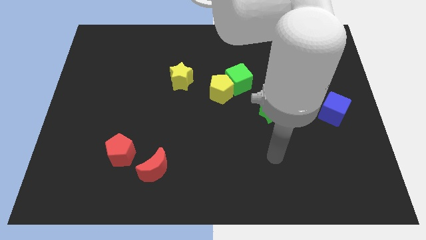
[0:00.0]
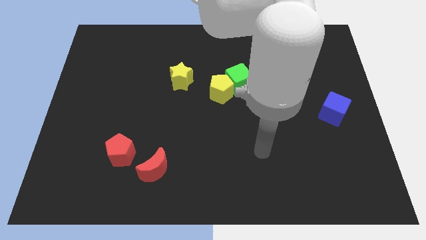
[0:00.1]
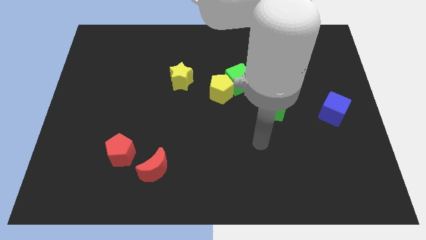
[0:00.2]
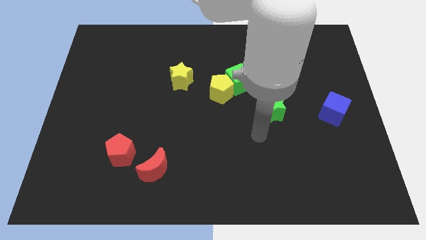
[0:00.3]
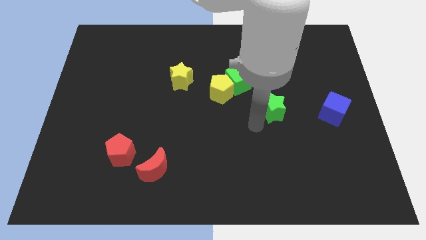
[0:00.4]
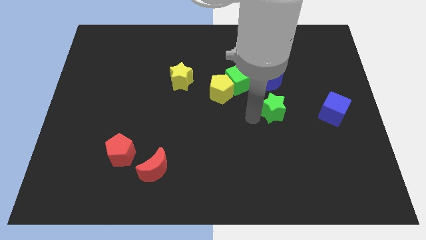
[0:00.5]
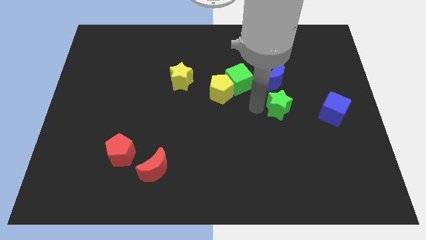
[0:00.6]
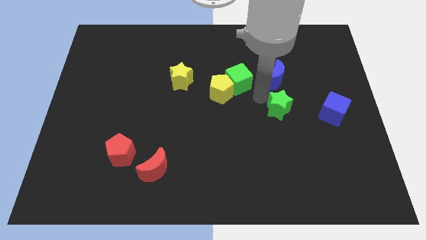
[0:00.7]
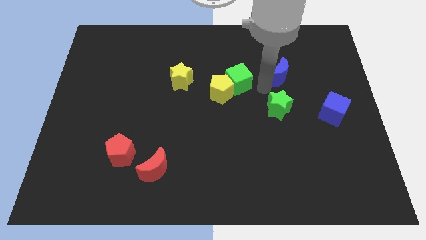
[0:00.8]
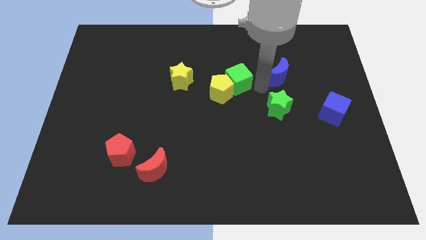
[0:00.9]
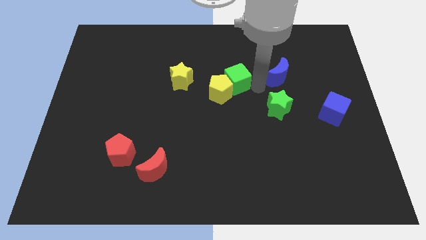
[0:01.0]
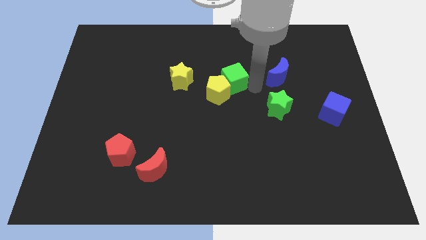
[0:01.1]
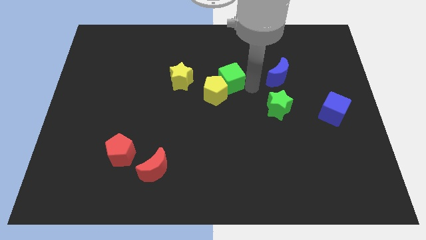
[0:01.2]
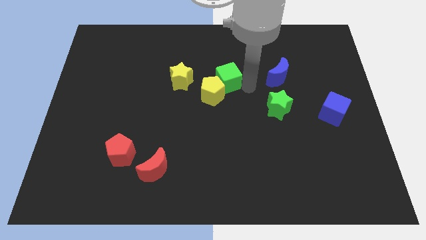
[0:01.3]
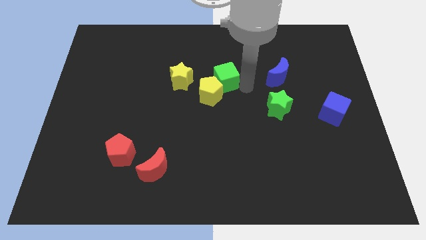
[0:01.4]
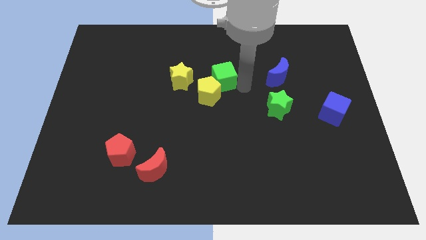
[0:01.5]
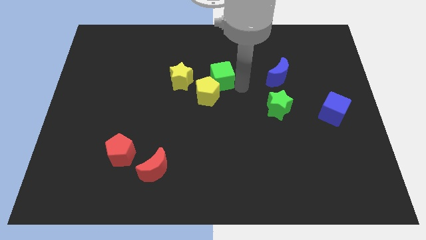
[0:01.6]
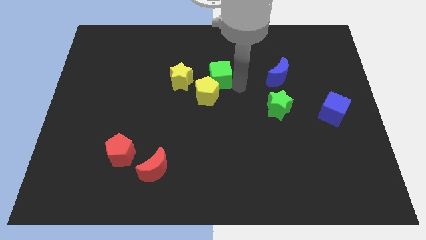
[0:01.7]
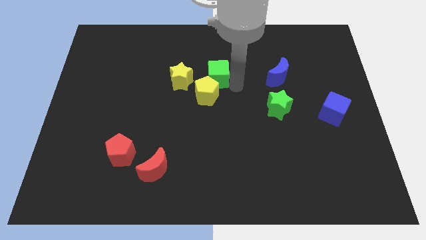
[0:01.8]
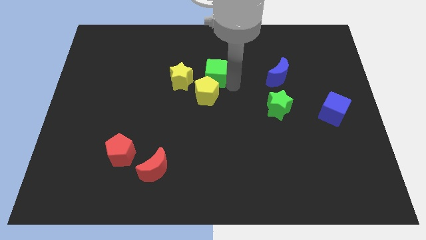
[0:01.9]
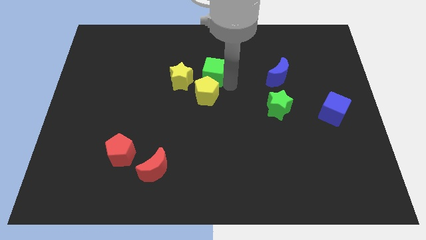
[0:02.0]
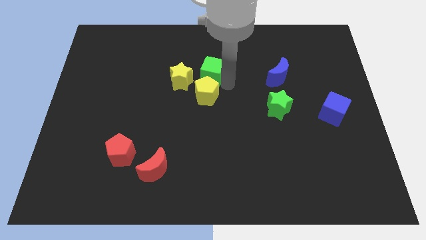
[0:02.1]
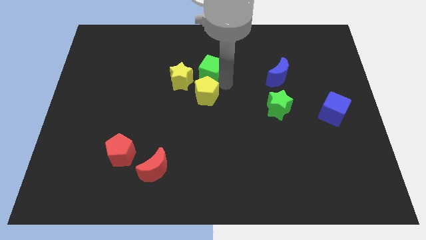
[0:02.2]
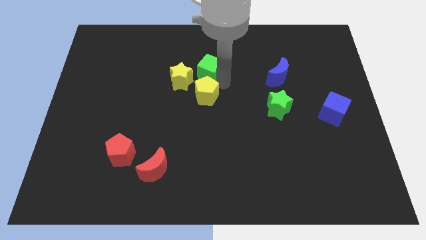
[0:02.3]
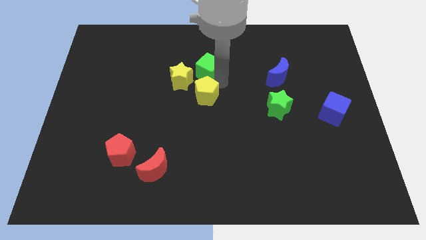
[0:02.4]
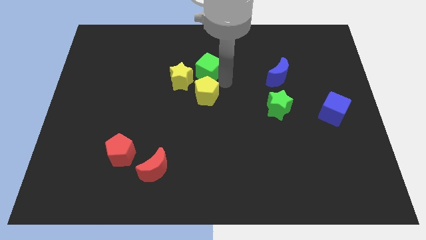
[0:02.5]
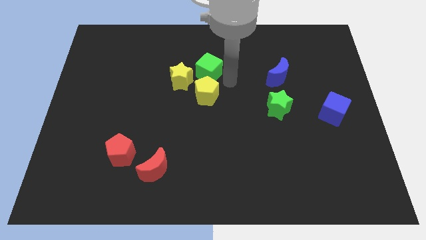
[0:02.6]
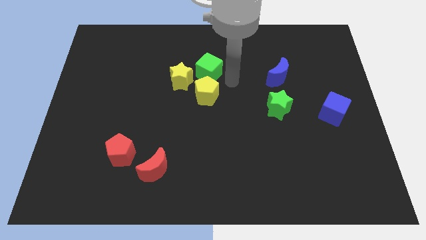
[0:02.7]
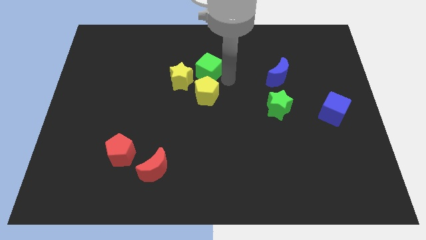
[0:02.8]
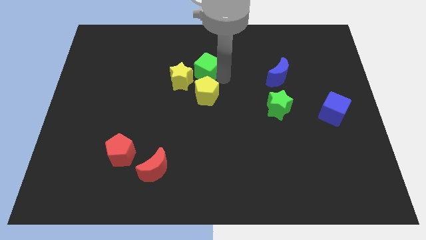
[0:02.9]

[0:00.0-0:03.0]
pull the green cube apart from the yellow pentagon and blue moon

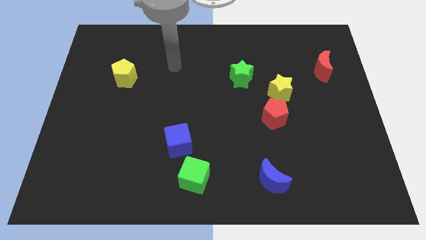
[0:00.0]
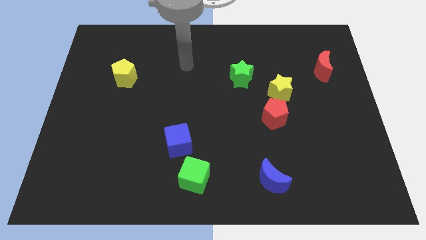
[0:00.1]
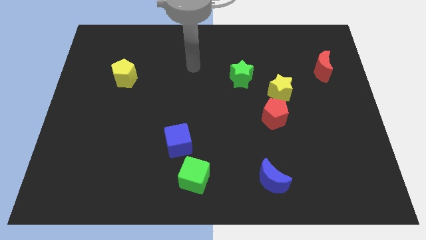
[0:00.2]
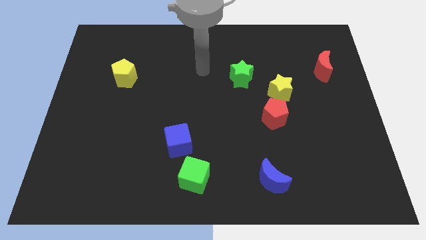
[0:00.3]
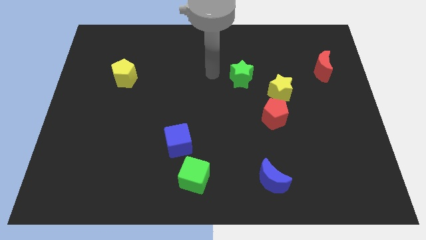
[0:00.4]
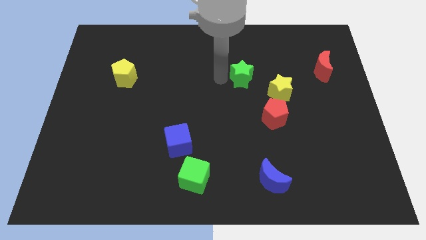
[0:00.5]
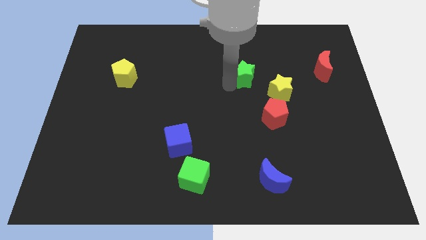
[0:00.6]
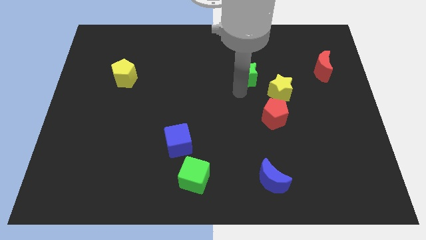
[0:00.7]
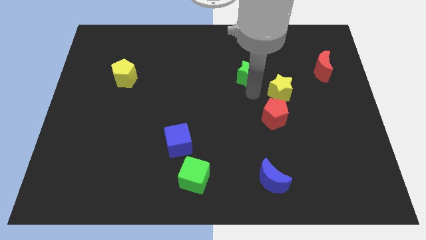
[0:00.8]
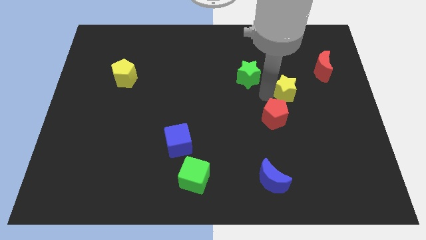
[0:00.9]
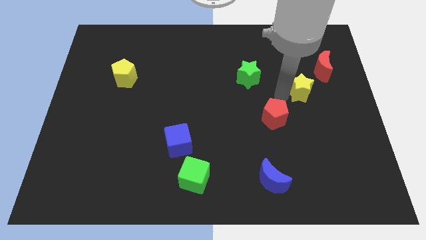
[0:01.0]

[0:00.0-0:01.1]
separate the red pentagon from the yellow star

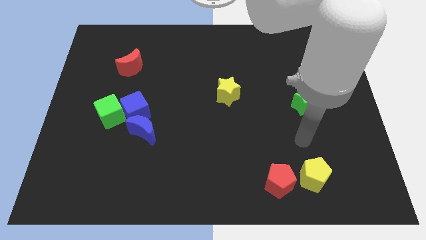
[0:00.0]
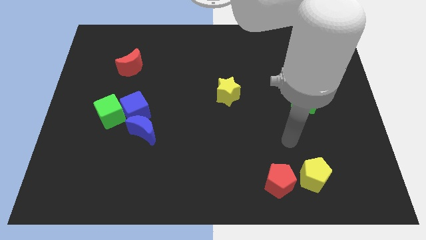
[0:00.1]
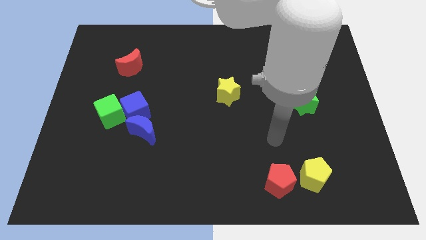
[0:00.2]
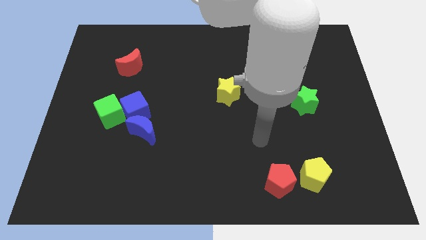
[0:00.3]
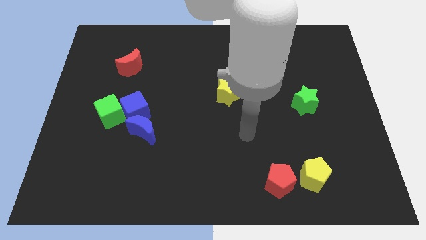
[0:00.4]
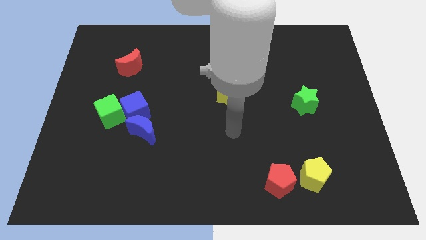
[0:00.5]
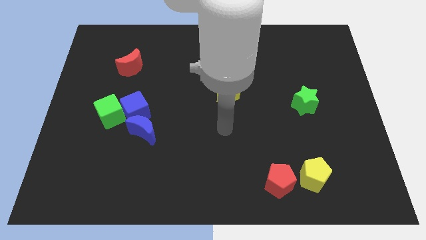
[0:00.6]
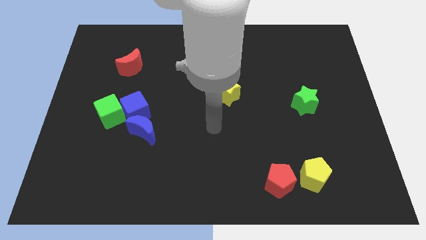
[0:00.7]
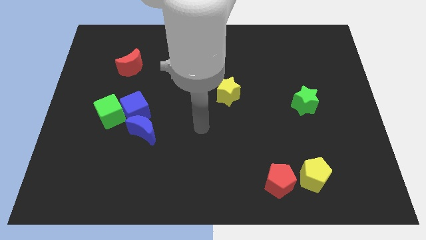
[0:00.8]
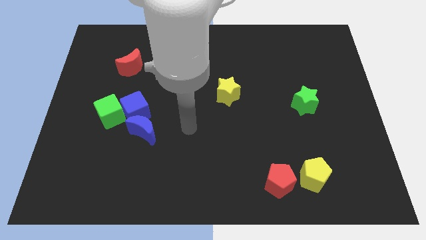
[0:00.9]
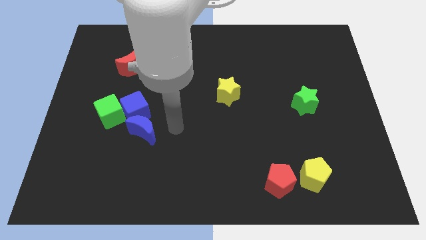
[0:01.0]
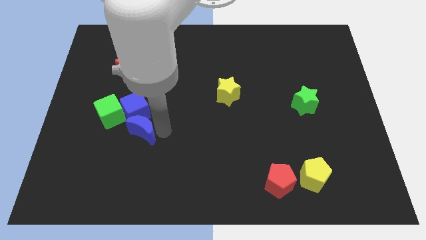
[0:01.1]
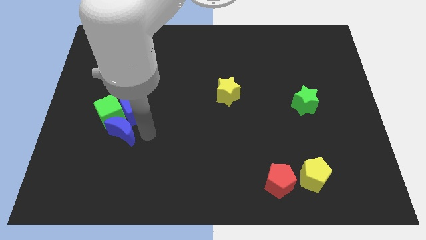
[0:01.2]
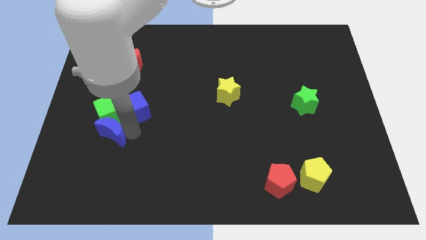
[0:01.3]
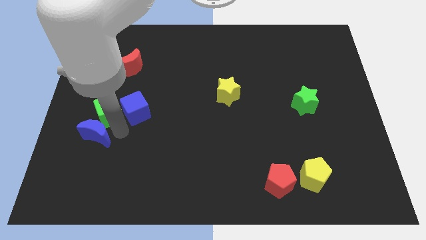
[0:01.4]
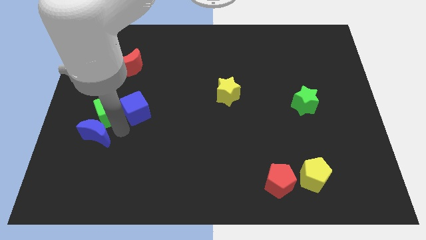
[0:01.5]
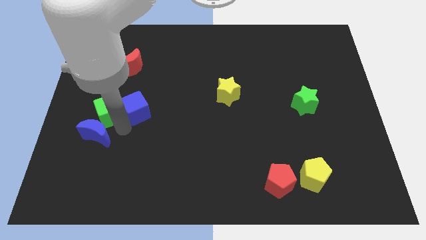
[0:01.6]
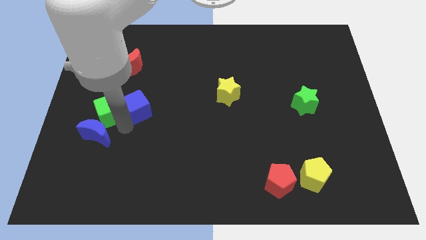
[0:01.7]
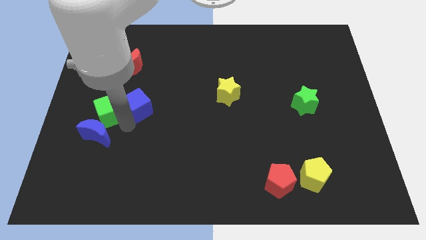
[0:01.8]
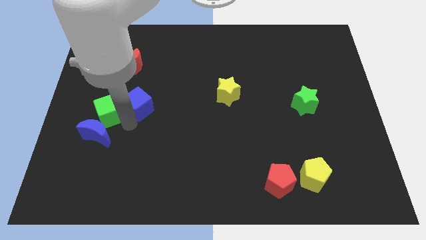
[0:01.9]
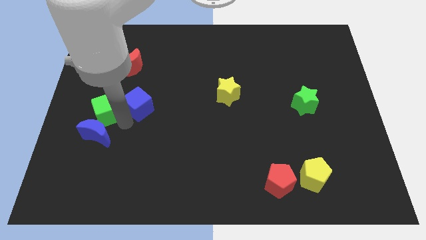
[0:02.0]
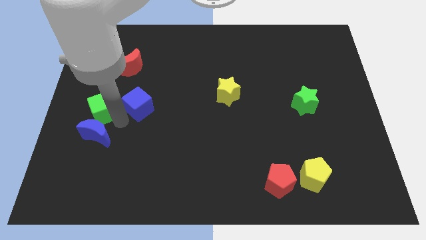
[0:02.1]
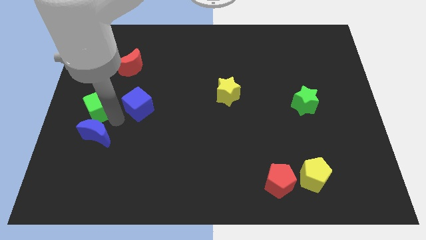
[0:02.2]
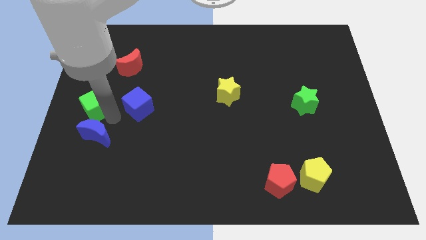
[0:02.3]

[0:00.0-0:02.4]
move the blue cube away from the green cube and blue moon

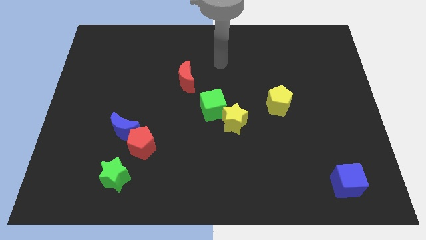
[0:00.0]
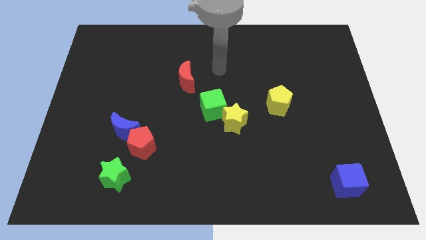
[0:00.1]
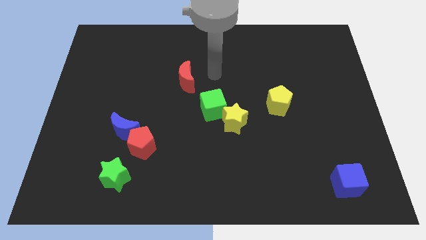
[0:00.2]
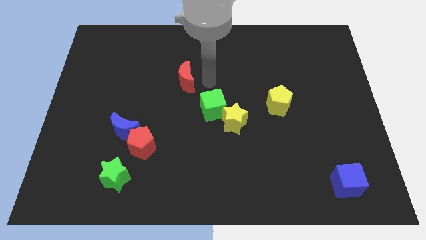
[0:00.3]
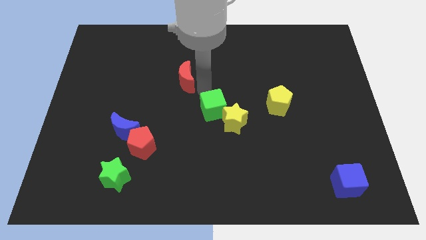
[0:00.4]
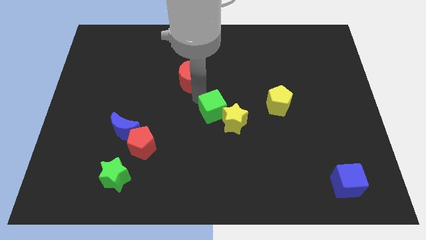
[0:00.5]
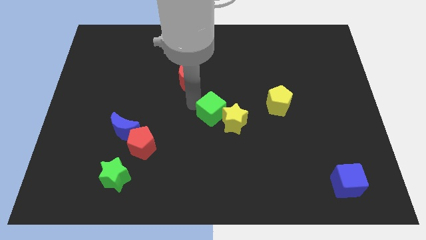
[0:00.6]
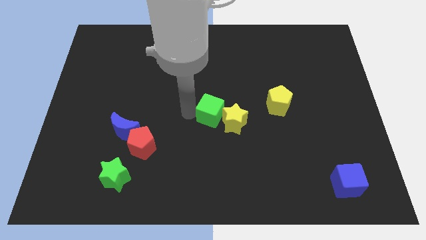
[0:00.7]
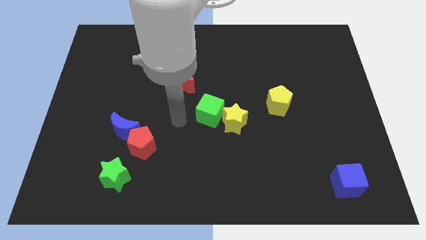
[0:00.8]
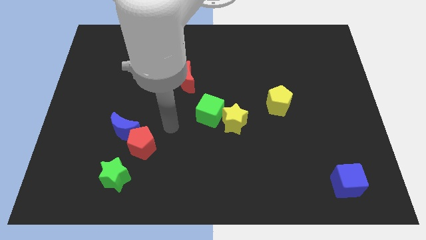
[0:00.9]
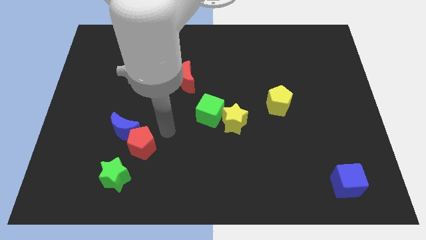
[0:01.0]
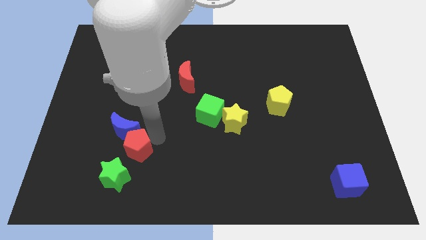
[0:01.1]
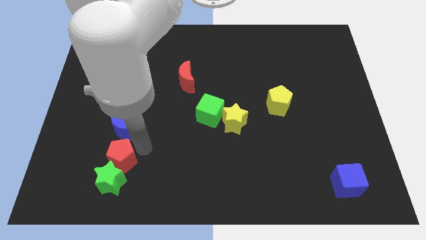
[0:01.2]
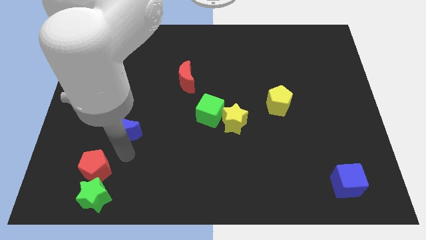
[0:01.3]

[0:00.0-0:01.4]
move the blue moon away from the red pentagon

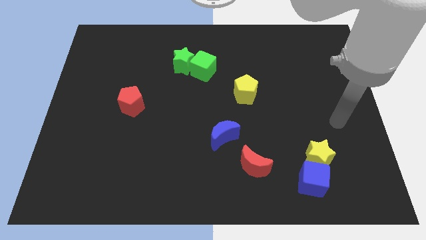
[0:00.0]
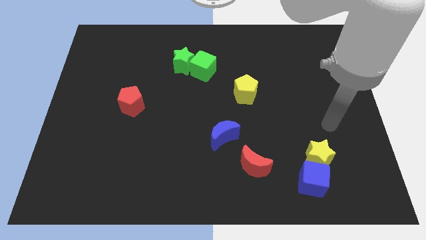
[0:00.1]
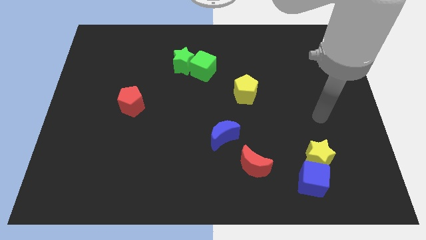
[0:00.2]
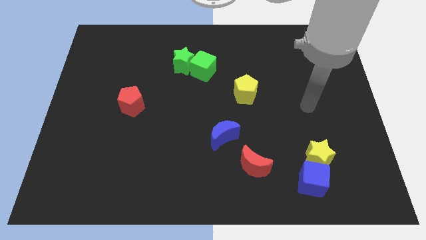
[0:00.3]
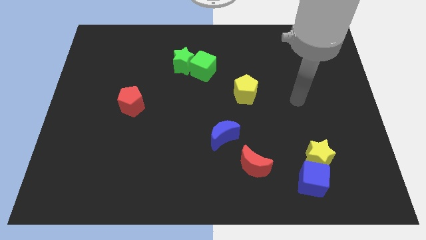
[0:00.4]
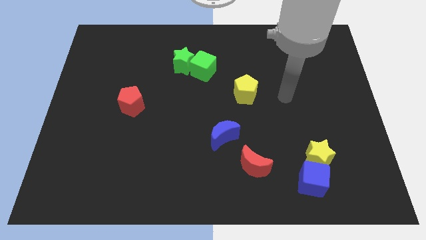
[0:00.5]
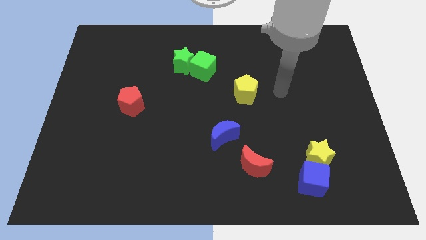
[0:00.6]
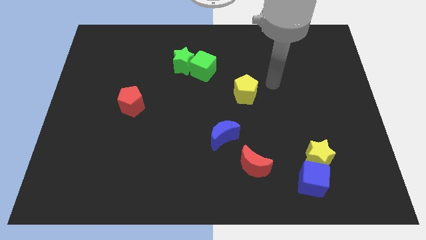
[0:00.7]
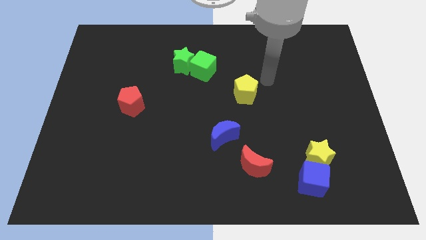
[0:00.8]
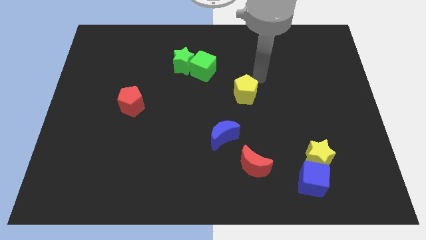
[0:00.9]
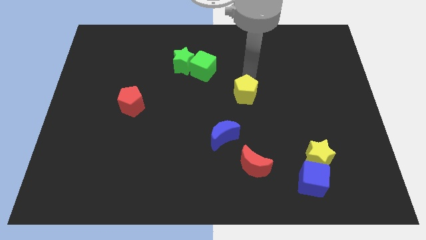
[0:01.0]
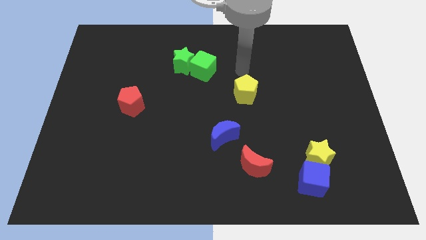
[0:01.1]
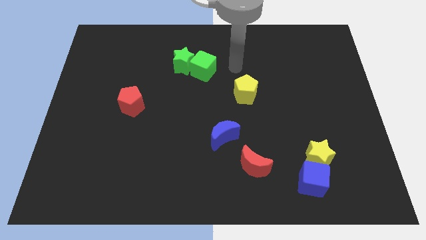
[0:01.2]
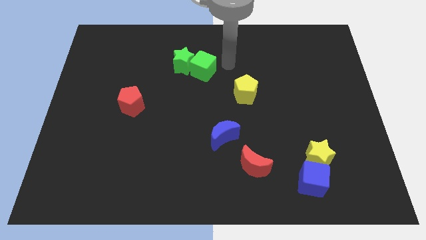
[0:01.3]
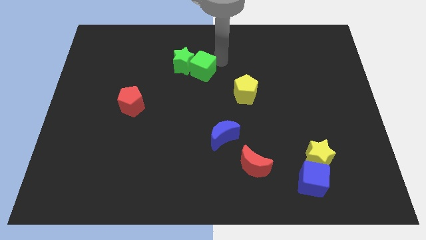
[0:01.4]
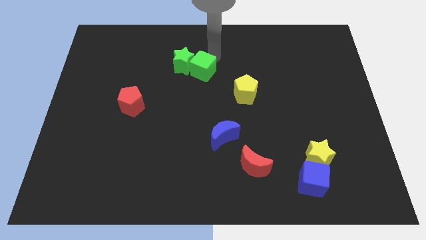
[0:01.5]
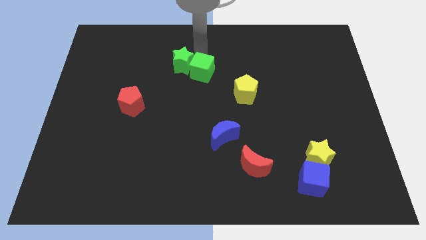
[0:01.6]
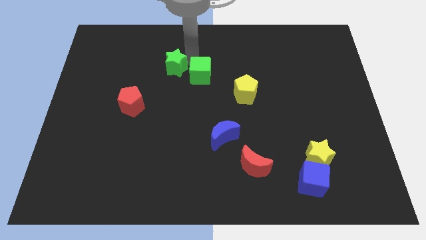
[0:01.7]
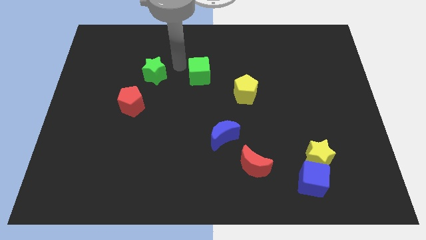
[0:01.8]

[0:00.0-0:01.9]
pull the green cube apart from the green star
